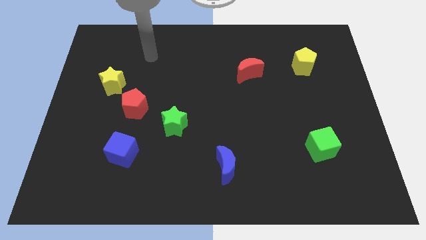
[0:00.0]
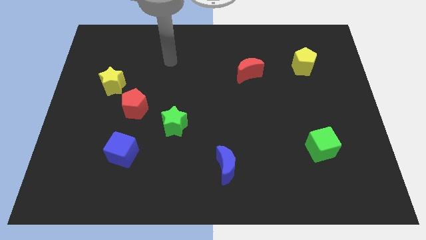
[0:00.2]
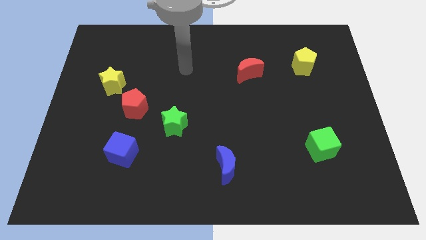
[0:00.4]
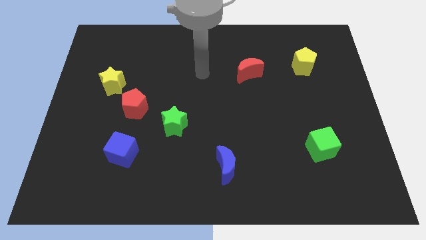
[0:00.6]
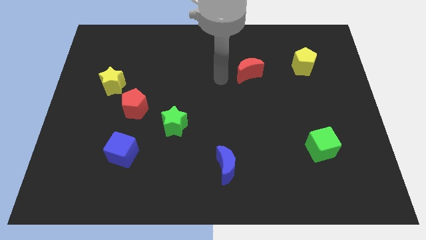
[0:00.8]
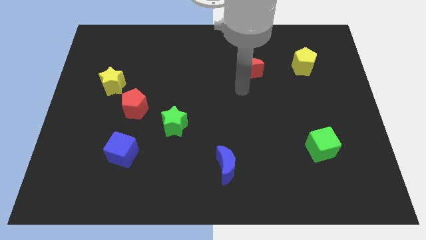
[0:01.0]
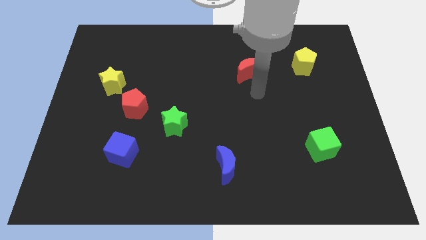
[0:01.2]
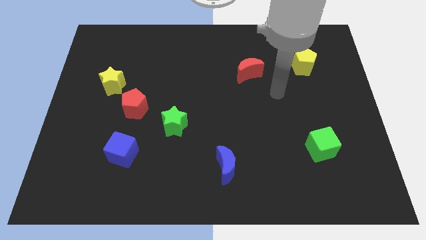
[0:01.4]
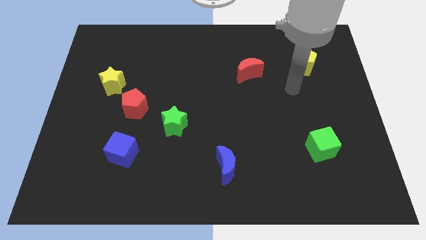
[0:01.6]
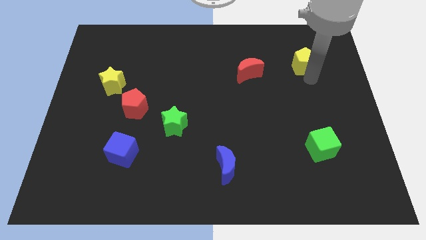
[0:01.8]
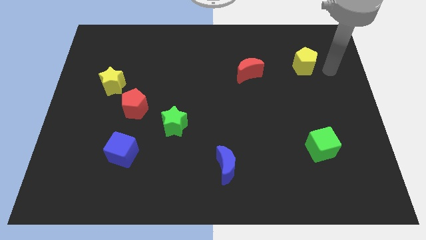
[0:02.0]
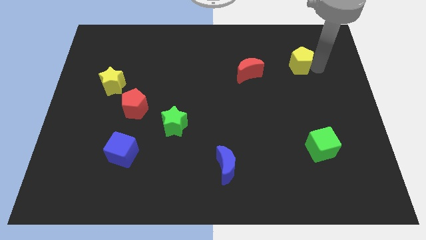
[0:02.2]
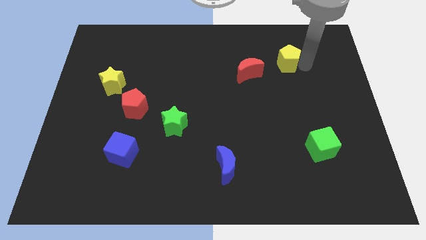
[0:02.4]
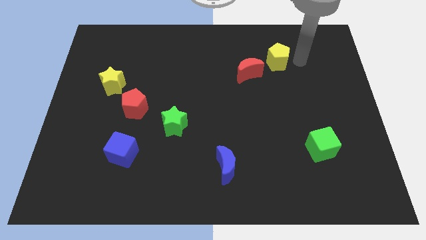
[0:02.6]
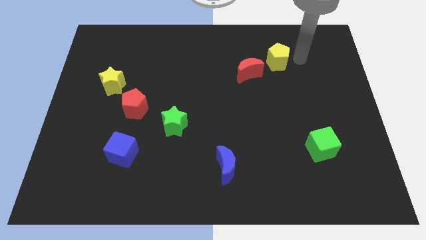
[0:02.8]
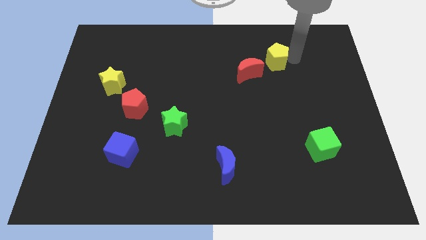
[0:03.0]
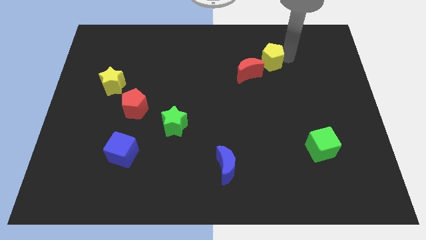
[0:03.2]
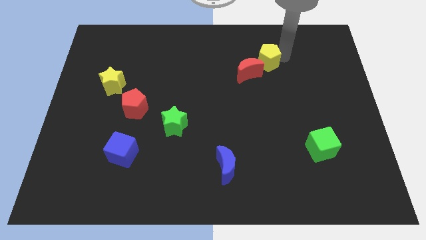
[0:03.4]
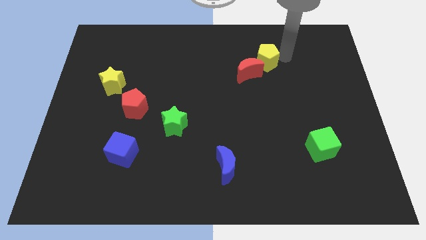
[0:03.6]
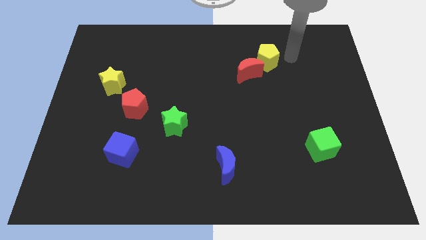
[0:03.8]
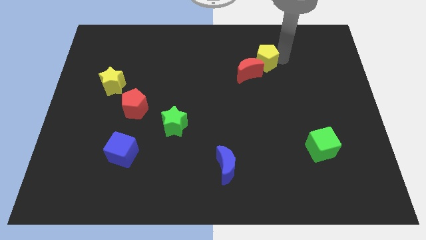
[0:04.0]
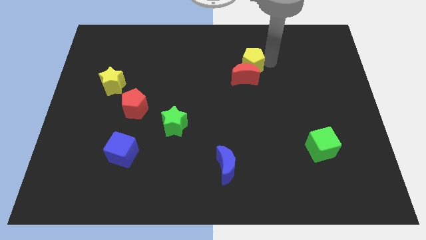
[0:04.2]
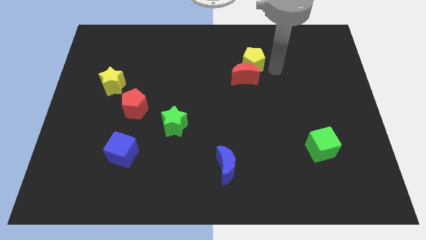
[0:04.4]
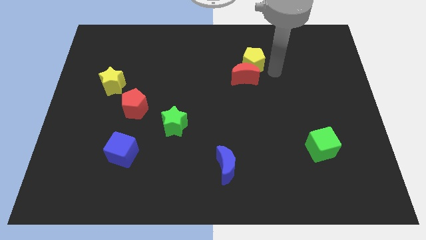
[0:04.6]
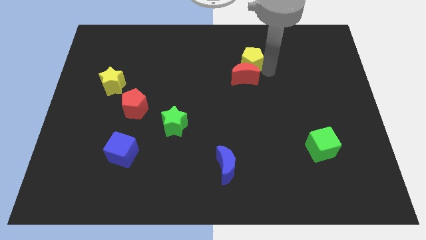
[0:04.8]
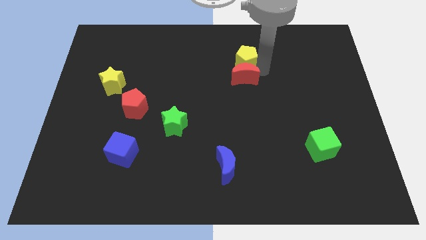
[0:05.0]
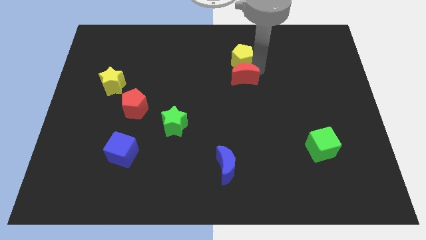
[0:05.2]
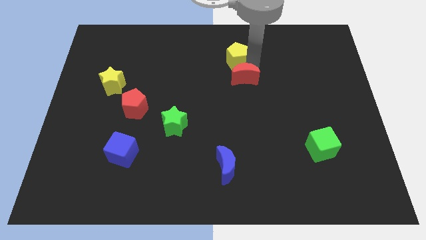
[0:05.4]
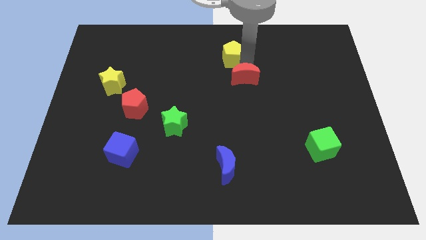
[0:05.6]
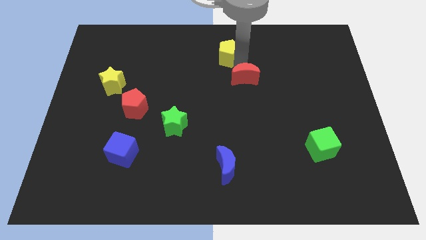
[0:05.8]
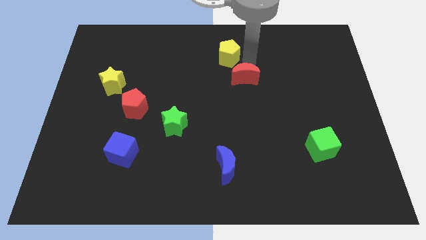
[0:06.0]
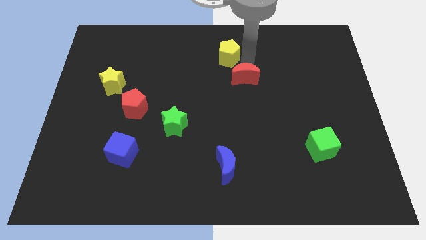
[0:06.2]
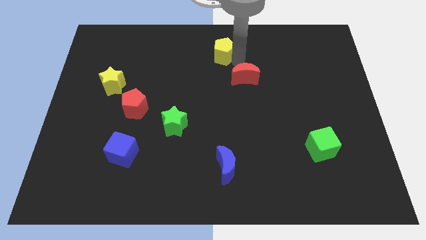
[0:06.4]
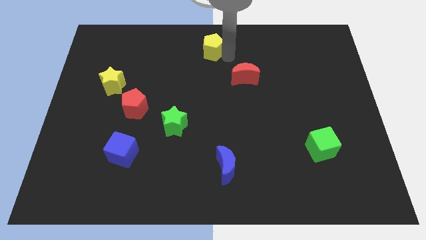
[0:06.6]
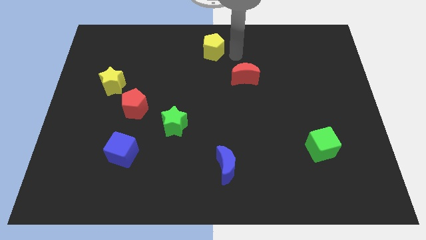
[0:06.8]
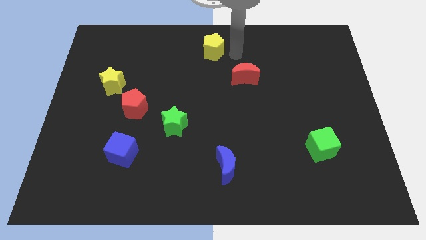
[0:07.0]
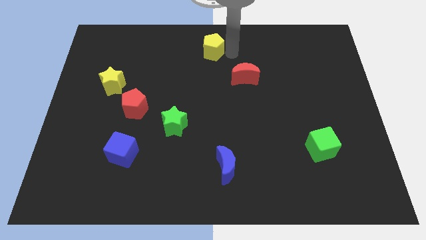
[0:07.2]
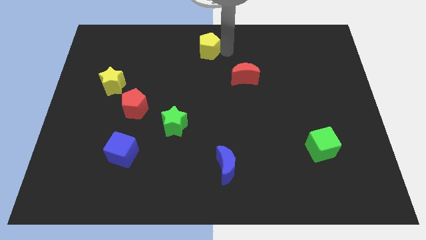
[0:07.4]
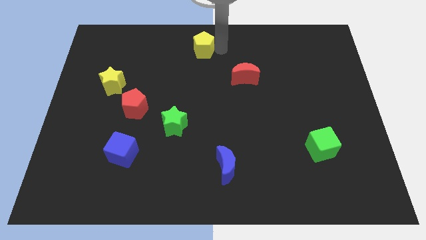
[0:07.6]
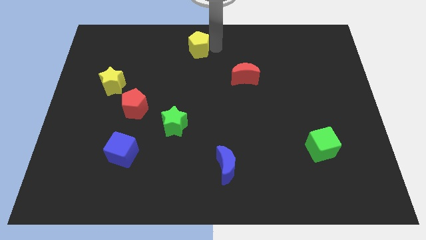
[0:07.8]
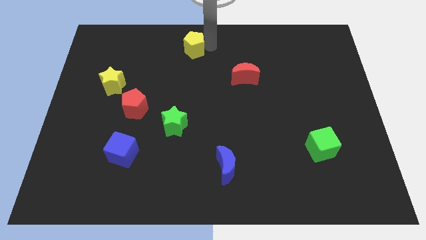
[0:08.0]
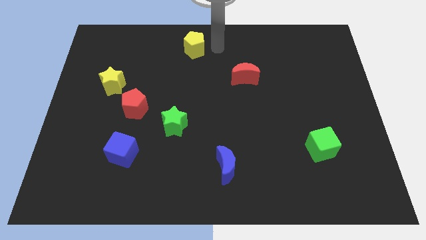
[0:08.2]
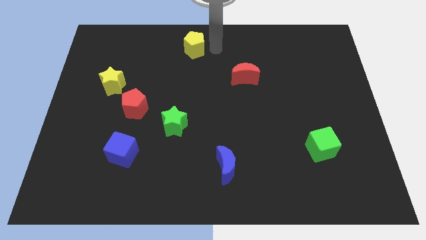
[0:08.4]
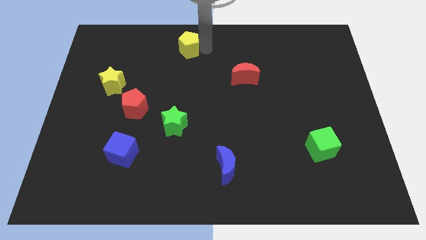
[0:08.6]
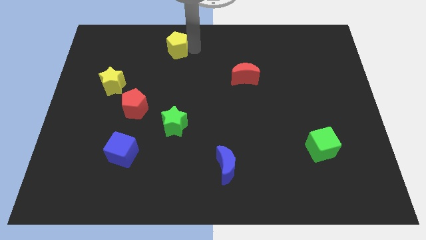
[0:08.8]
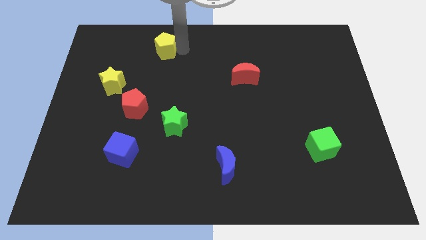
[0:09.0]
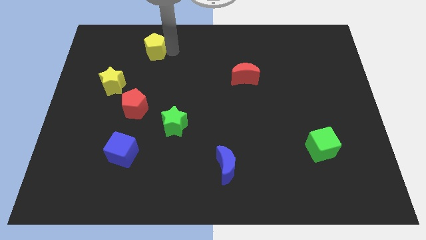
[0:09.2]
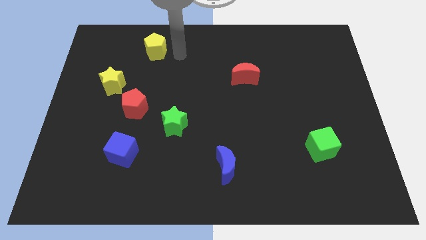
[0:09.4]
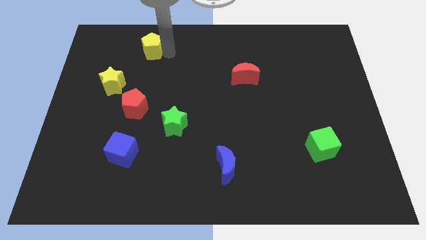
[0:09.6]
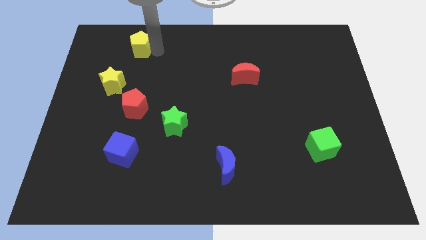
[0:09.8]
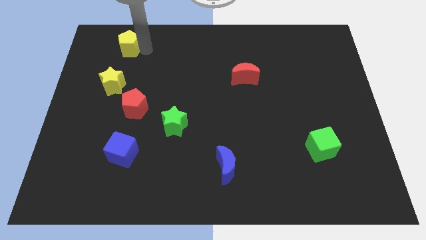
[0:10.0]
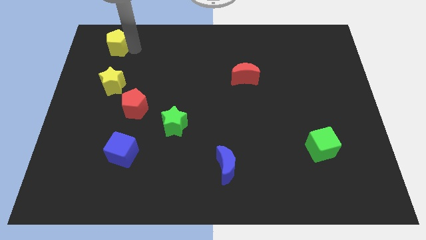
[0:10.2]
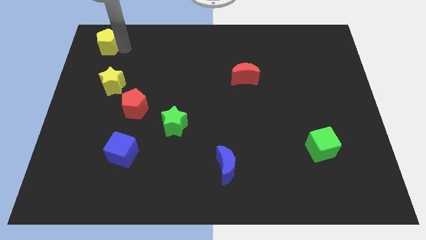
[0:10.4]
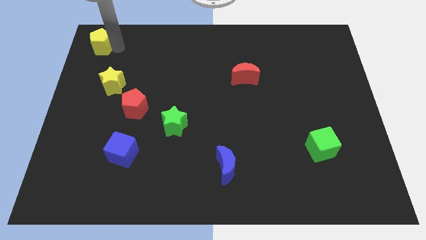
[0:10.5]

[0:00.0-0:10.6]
slide the yellow pentagon to the upper left corner
